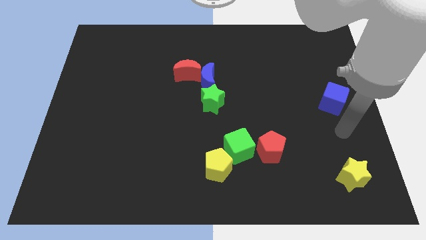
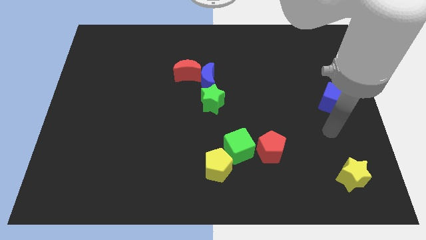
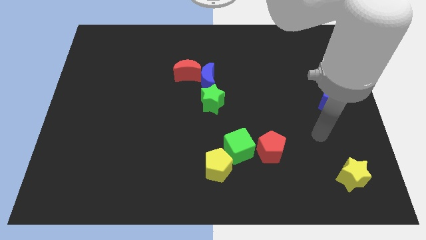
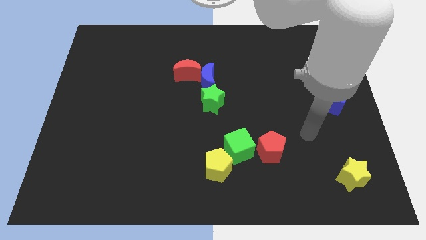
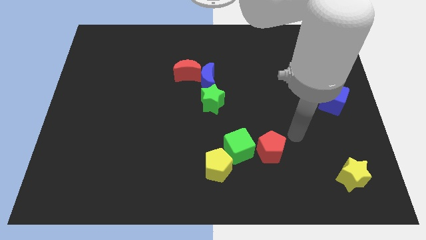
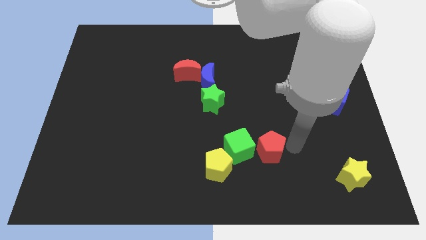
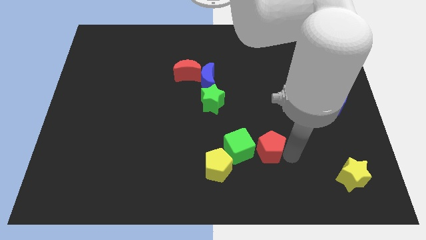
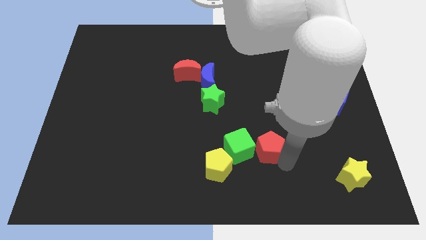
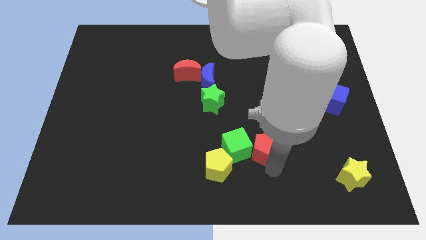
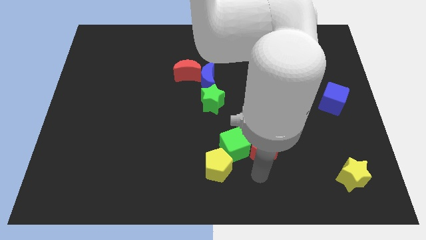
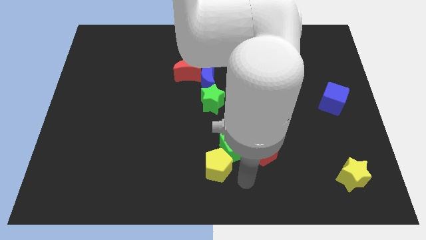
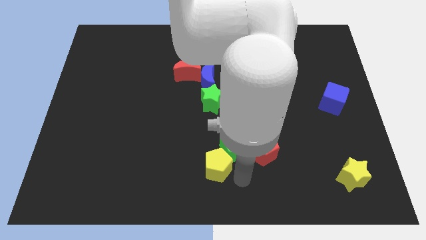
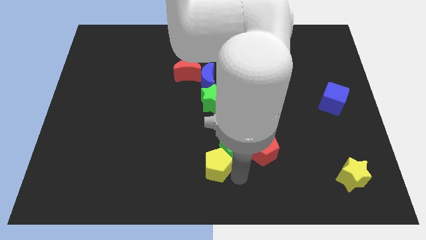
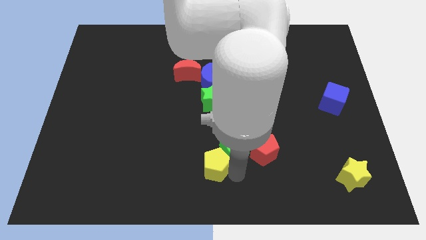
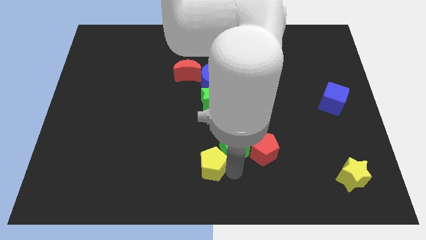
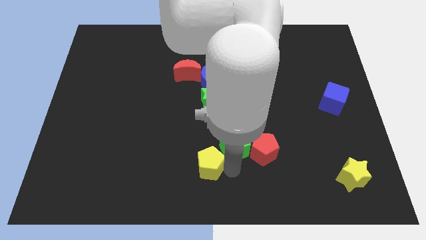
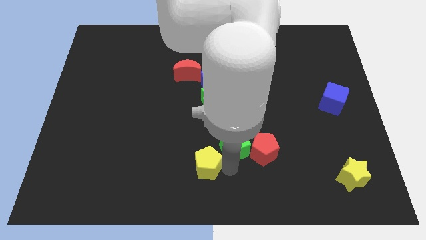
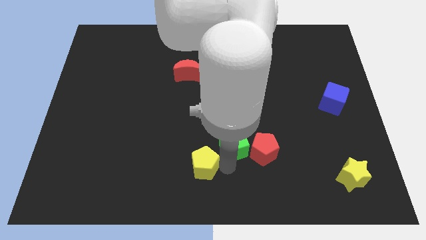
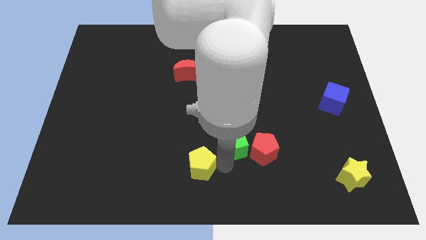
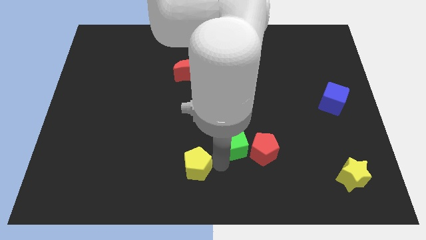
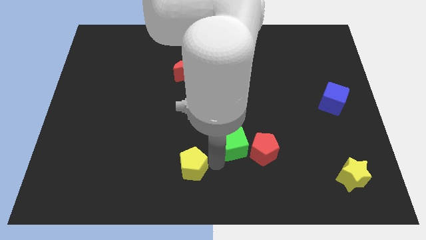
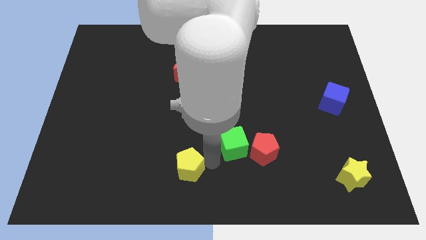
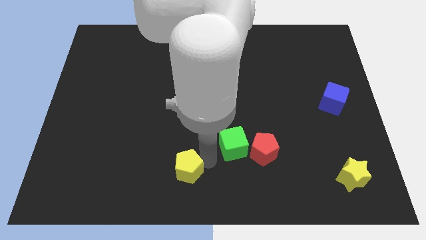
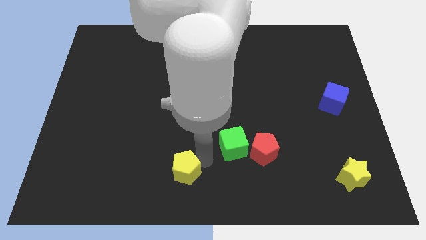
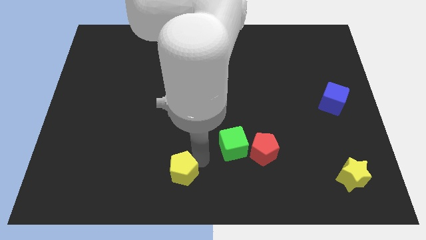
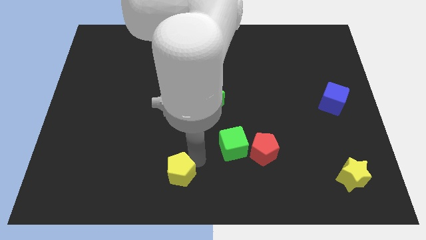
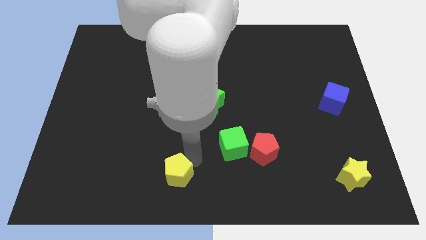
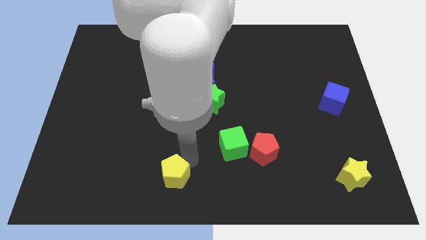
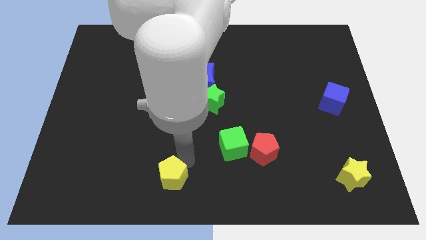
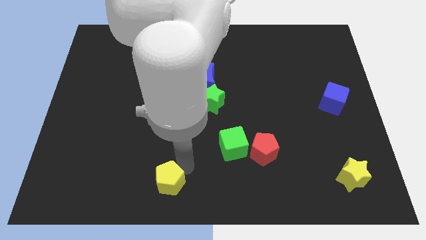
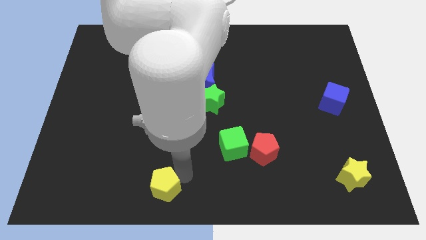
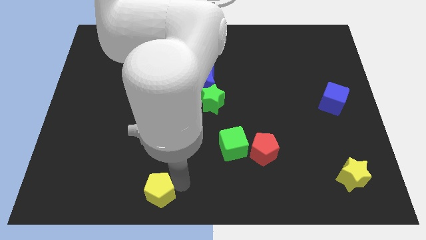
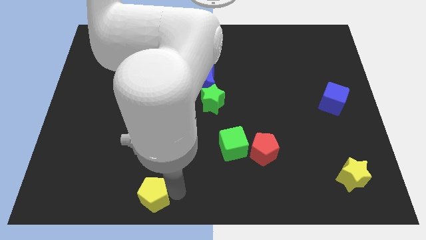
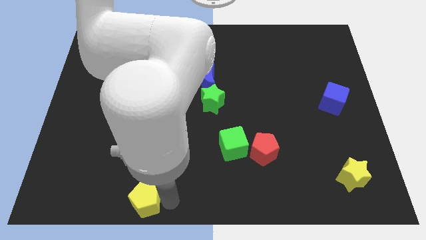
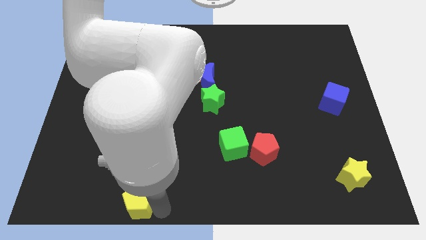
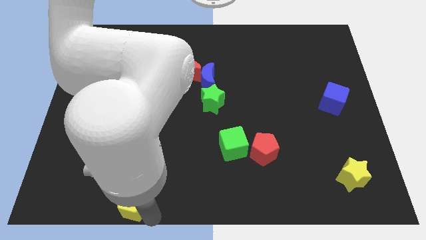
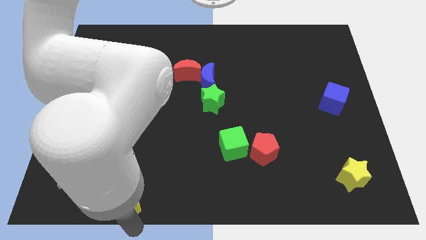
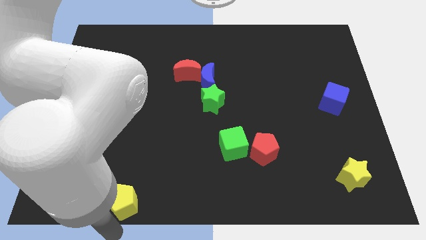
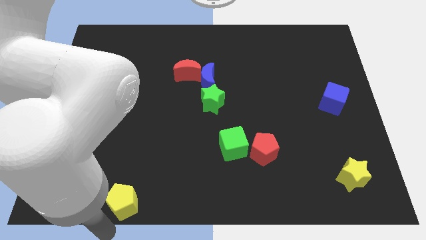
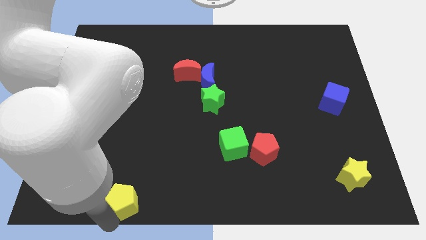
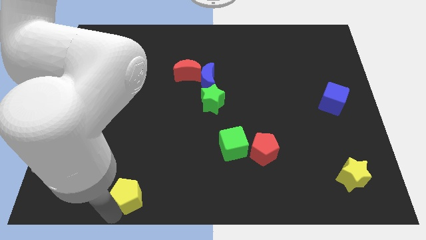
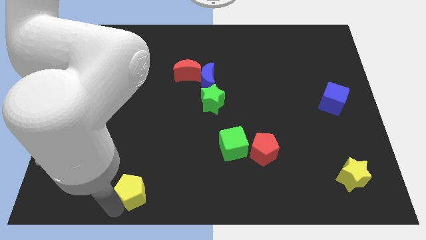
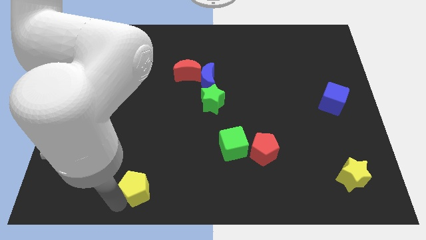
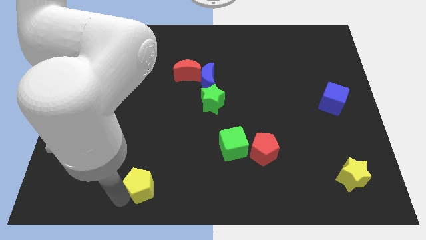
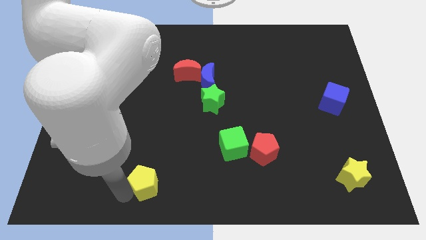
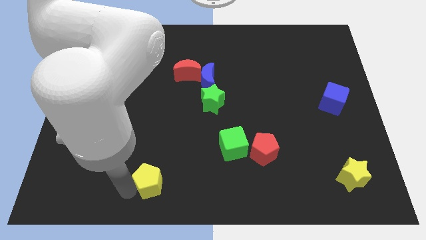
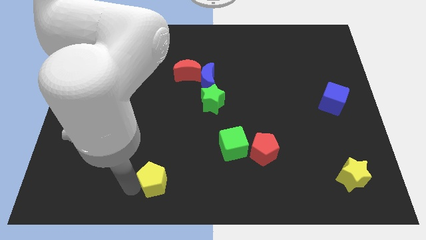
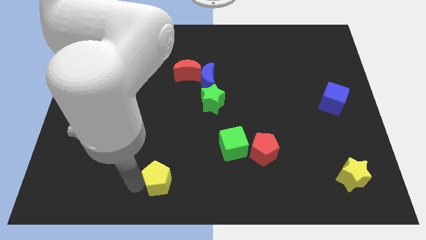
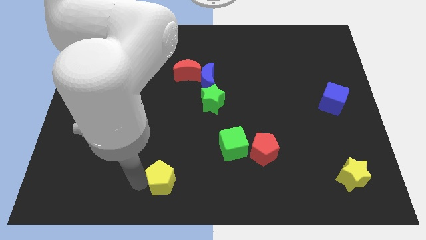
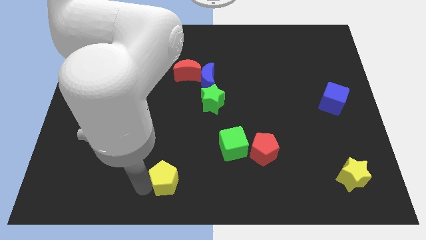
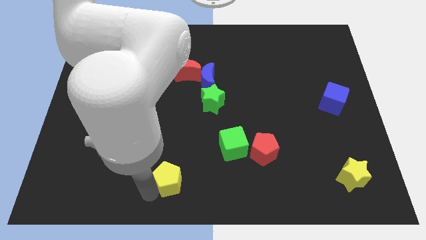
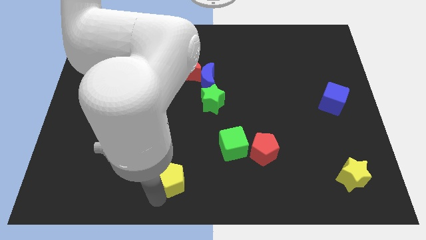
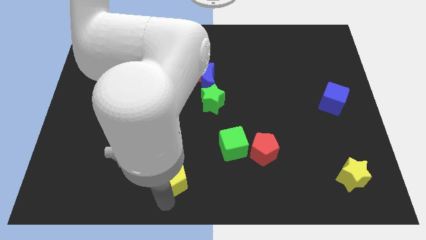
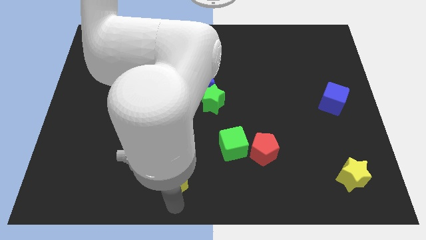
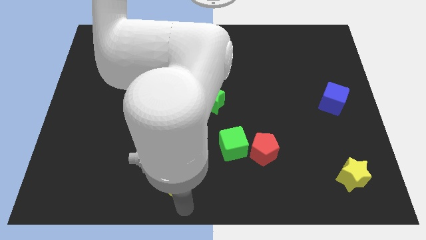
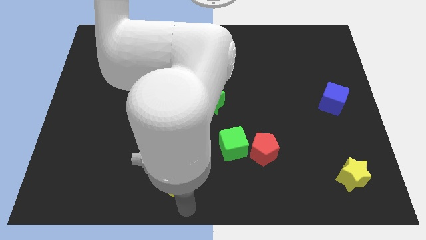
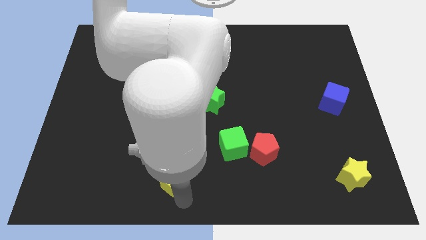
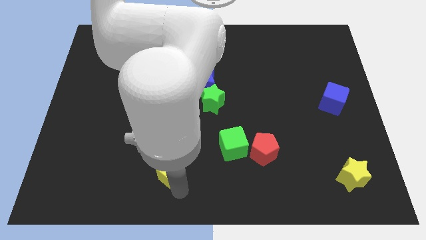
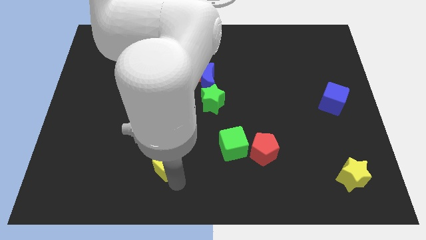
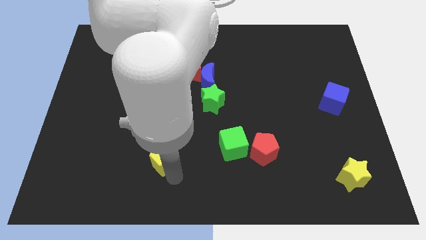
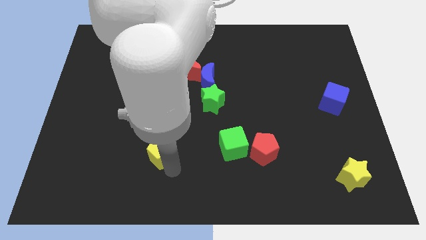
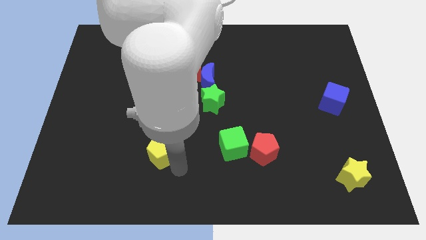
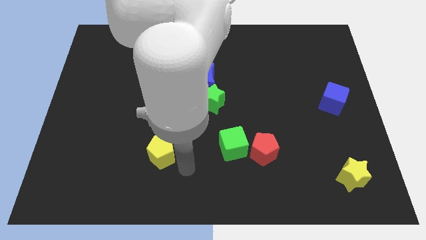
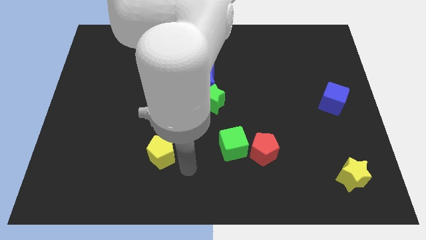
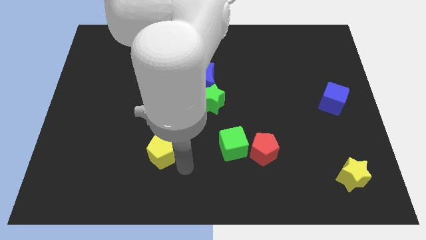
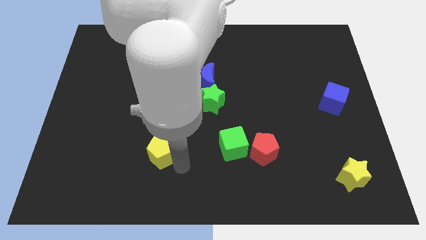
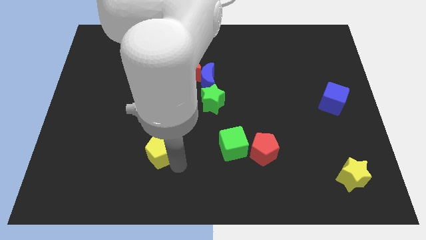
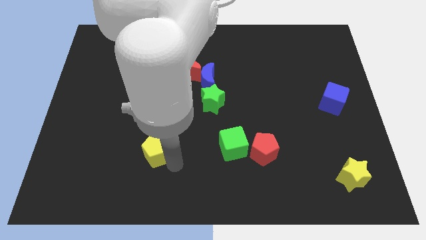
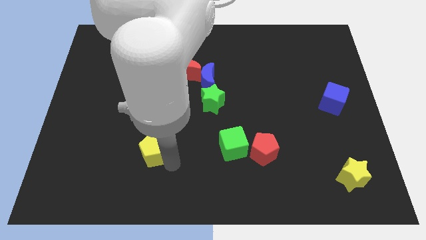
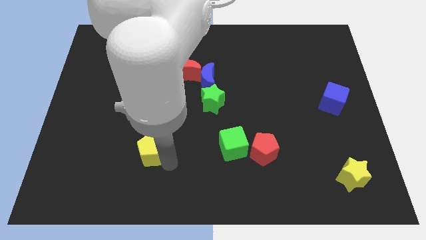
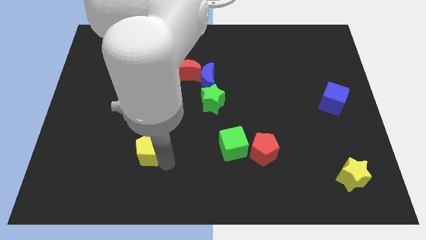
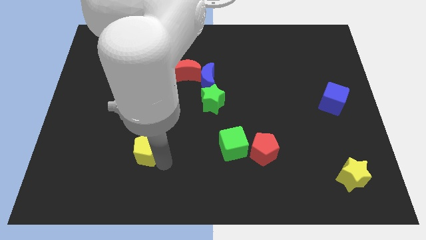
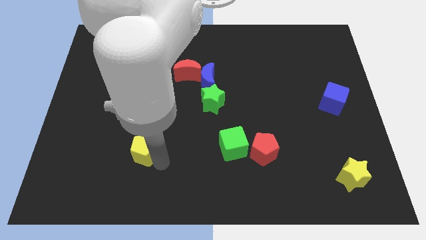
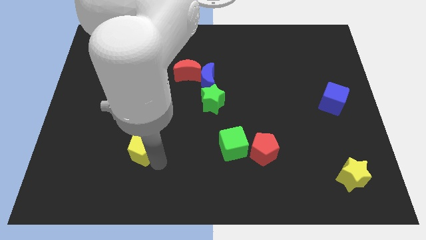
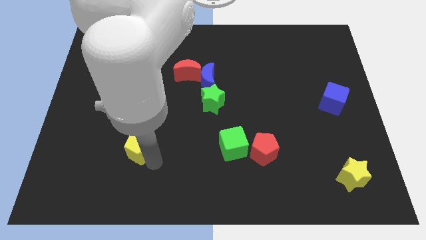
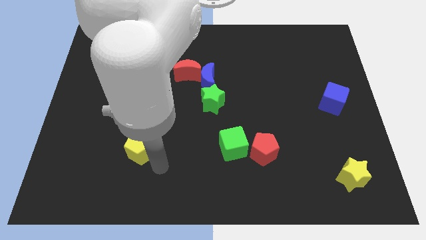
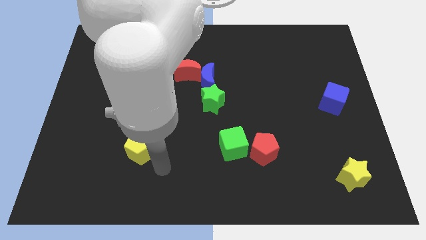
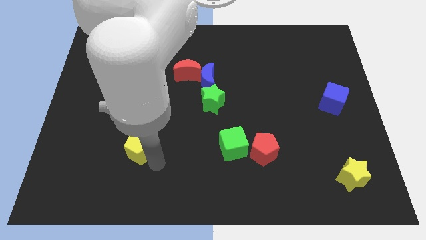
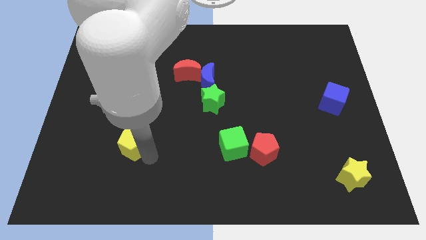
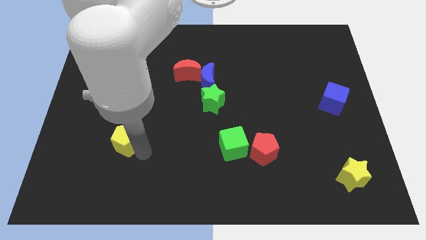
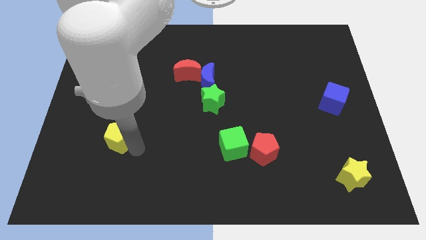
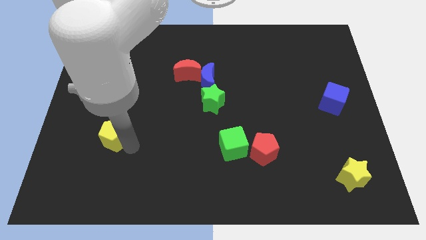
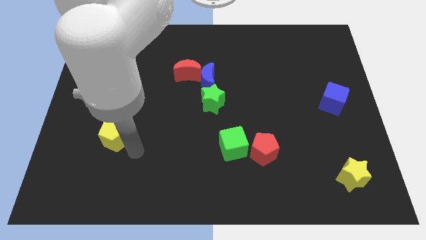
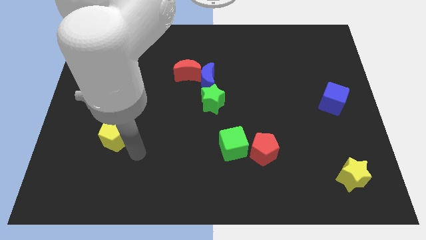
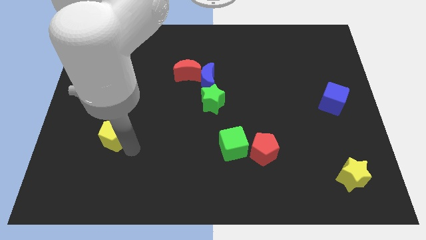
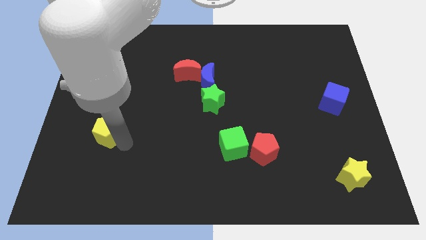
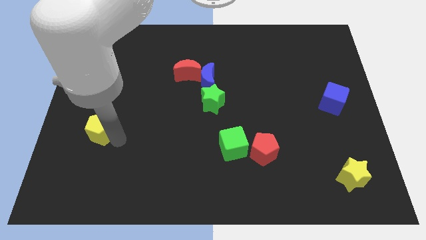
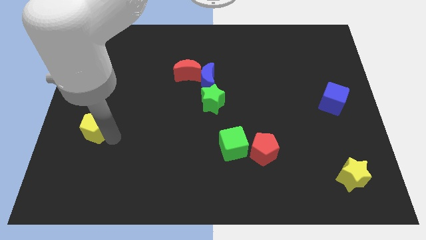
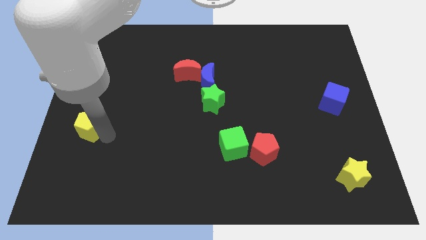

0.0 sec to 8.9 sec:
put the yellow pentagon to the left side of the board
